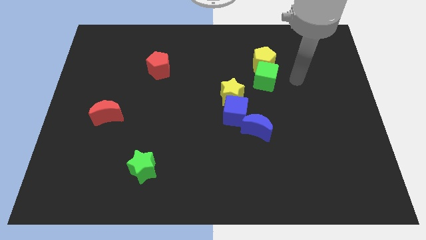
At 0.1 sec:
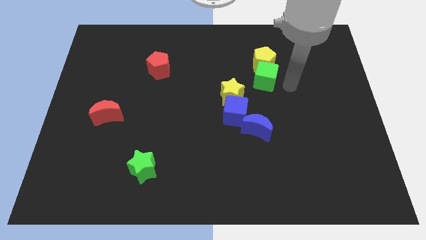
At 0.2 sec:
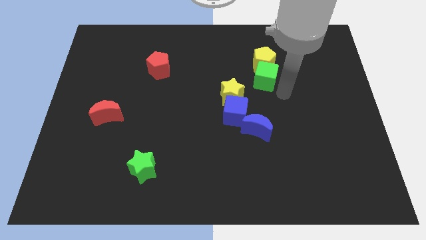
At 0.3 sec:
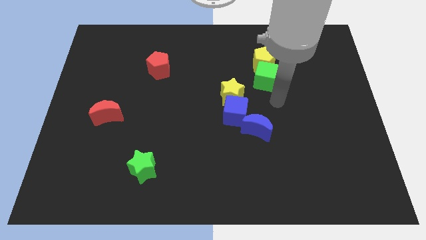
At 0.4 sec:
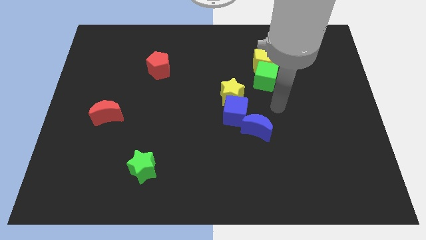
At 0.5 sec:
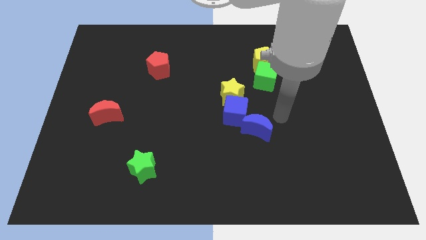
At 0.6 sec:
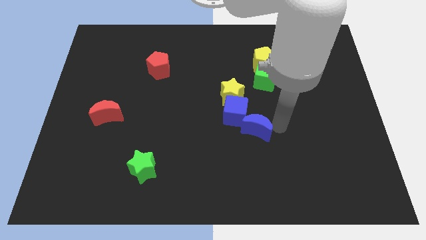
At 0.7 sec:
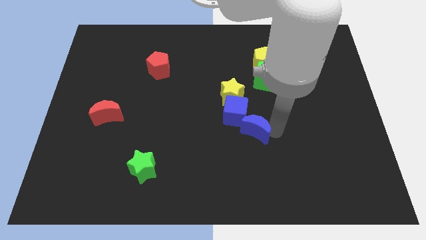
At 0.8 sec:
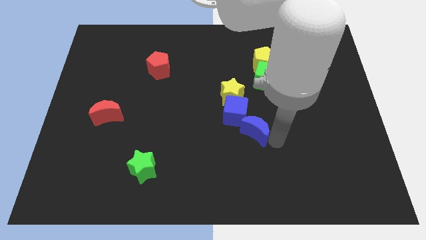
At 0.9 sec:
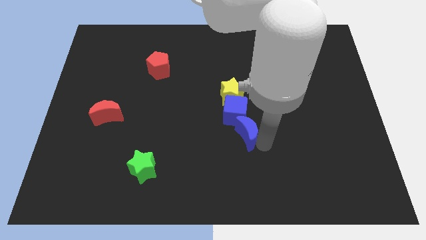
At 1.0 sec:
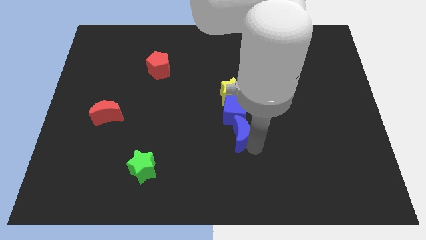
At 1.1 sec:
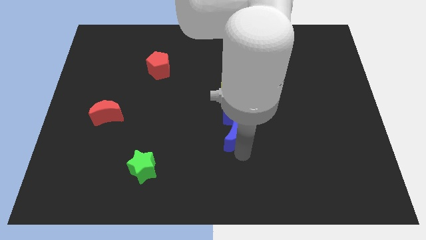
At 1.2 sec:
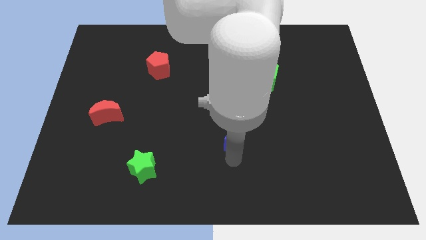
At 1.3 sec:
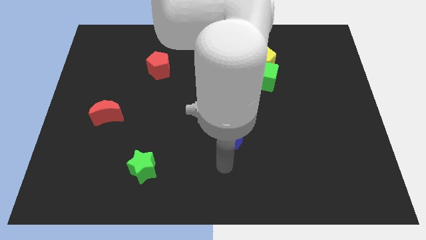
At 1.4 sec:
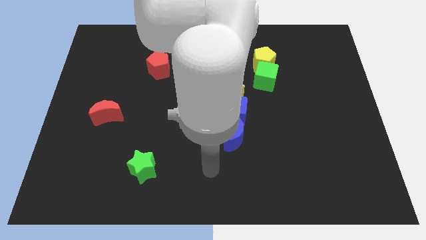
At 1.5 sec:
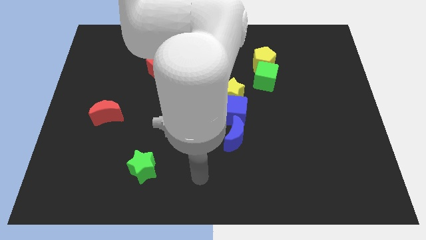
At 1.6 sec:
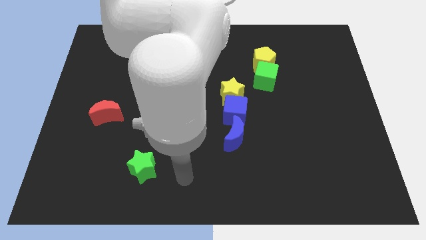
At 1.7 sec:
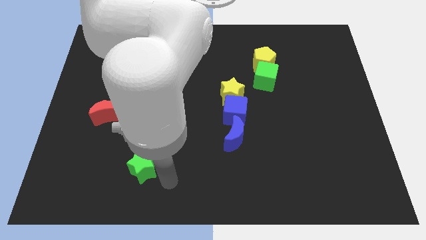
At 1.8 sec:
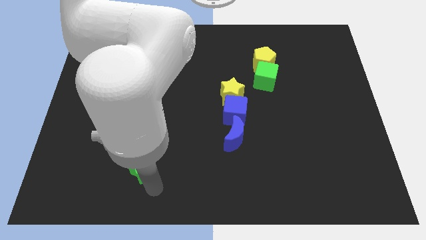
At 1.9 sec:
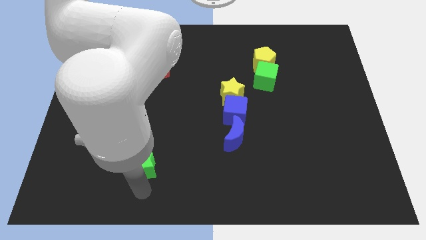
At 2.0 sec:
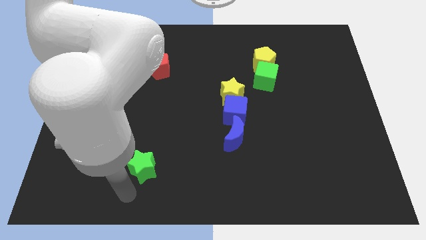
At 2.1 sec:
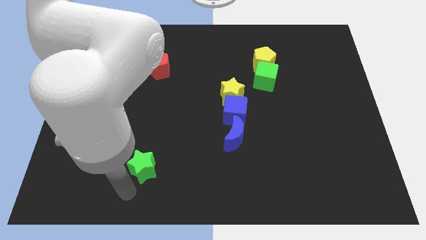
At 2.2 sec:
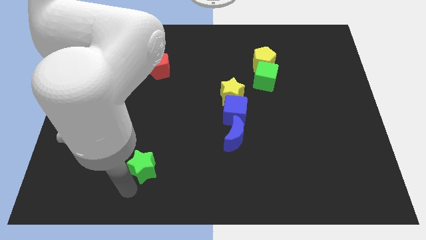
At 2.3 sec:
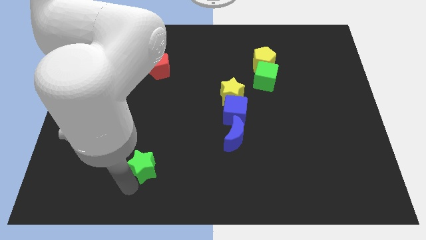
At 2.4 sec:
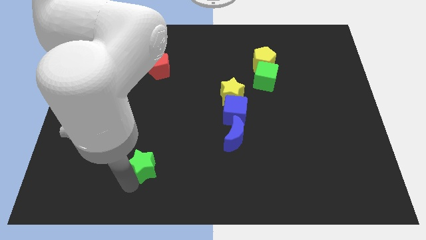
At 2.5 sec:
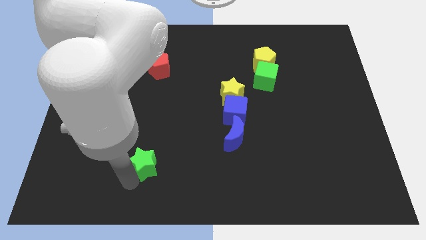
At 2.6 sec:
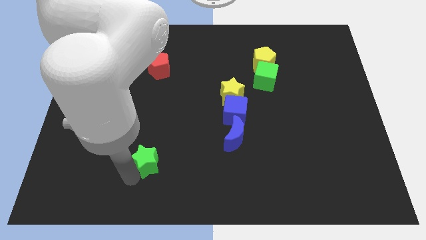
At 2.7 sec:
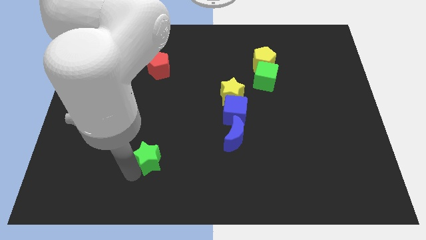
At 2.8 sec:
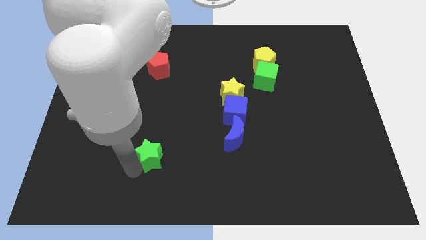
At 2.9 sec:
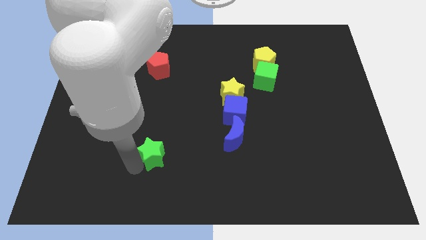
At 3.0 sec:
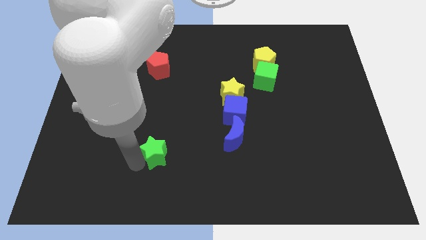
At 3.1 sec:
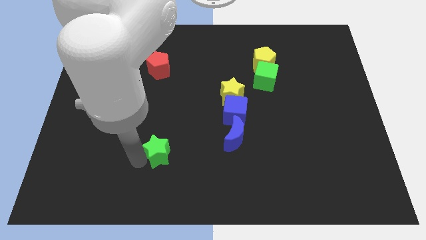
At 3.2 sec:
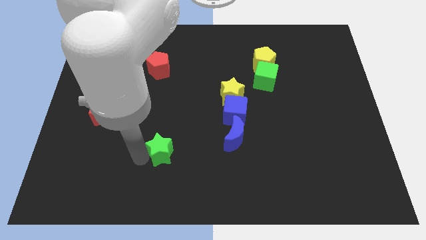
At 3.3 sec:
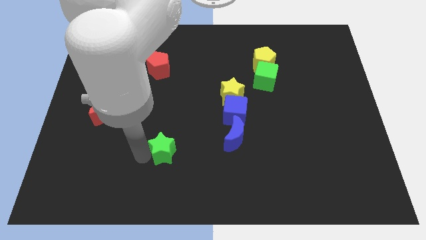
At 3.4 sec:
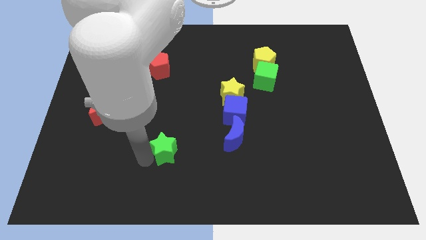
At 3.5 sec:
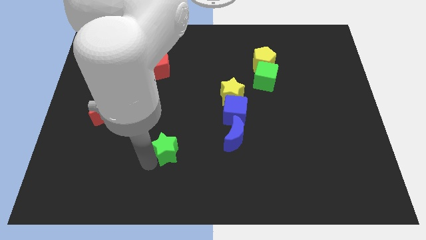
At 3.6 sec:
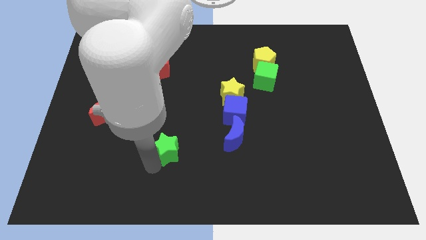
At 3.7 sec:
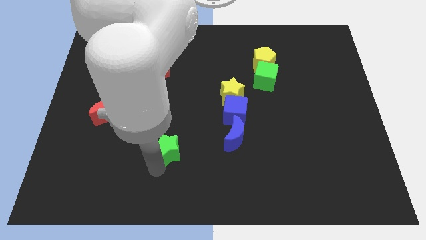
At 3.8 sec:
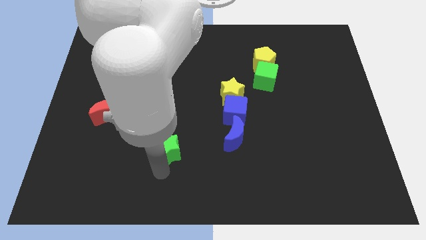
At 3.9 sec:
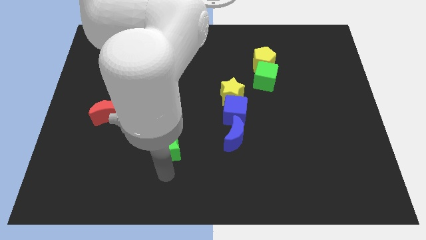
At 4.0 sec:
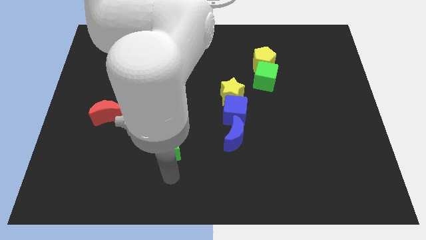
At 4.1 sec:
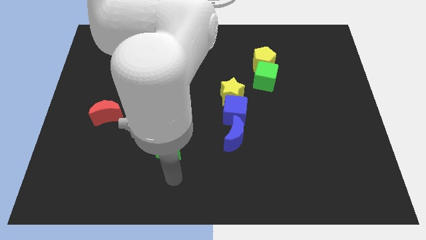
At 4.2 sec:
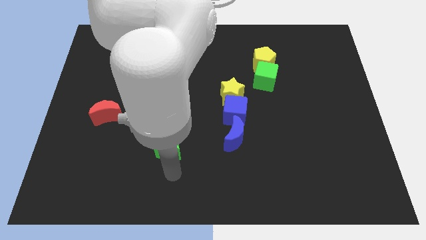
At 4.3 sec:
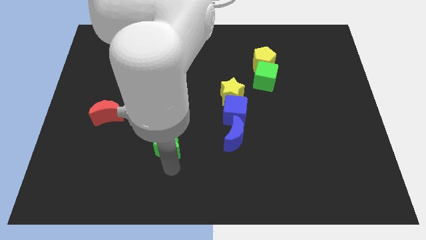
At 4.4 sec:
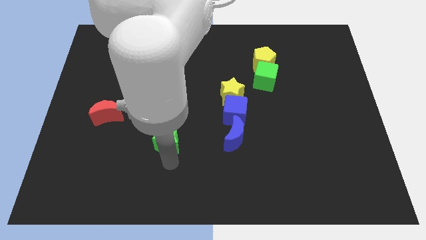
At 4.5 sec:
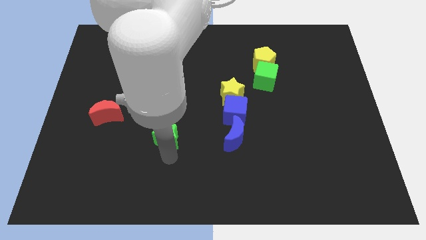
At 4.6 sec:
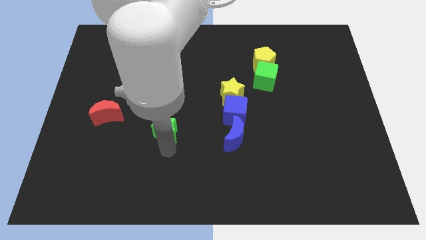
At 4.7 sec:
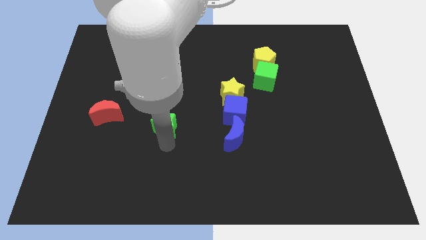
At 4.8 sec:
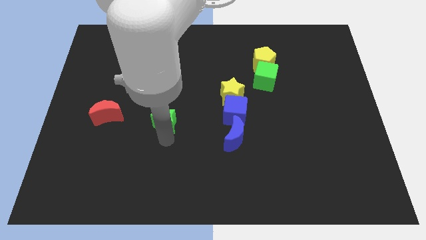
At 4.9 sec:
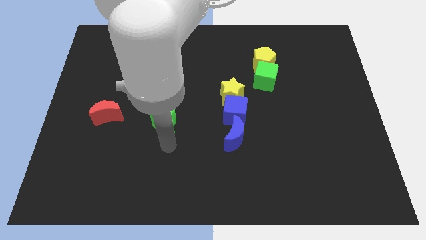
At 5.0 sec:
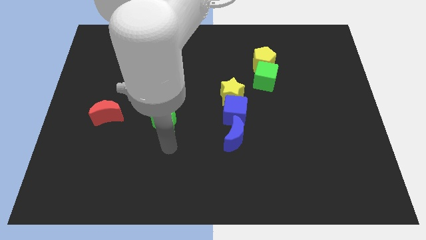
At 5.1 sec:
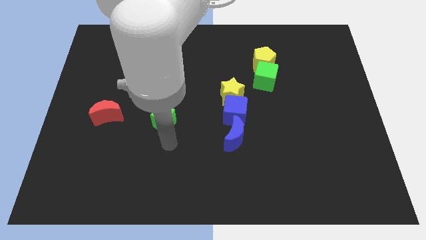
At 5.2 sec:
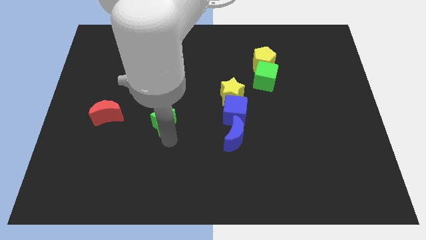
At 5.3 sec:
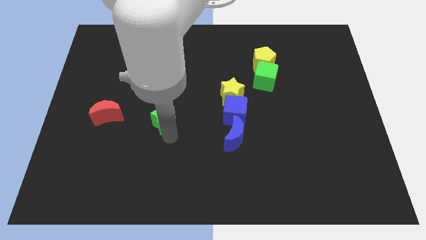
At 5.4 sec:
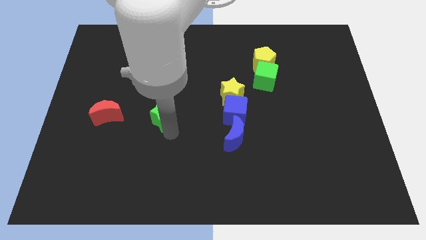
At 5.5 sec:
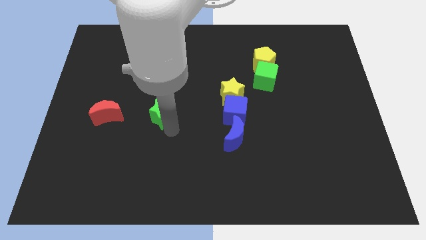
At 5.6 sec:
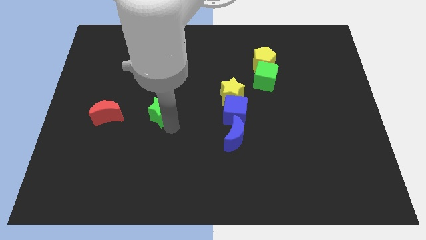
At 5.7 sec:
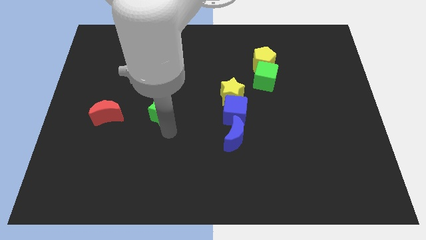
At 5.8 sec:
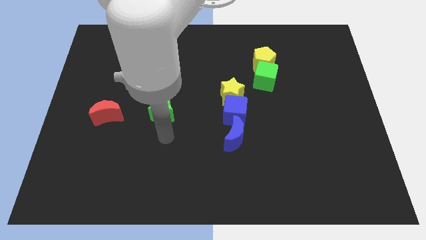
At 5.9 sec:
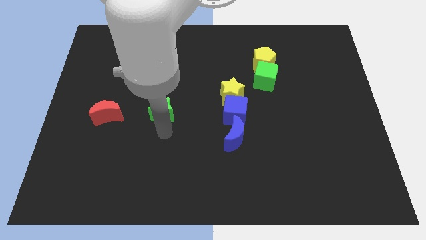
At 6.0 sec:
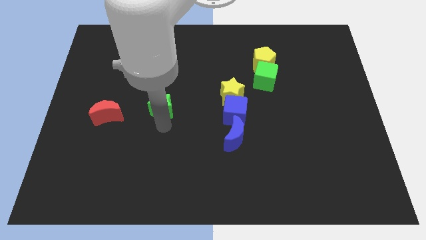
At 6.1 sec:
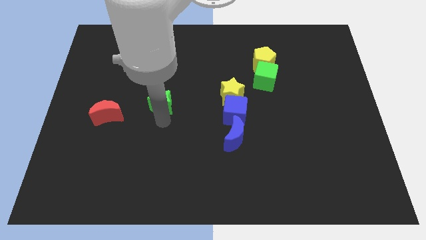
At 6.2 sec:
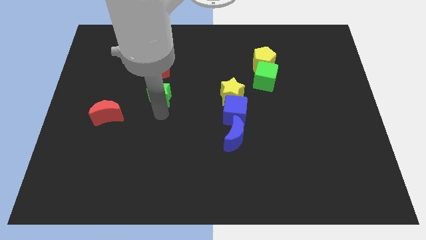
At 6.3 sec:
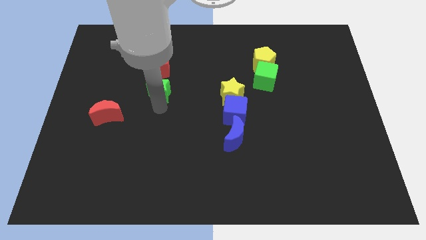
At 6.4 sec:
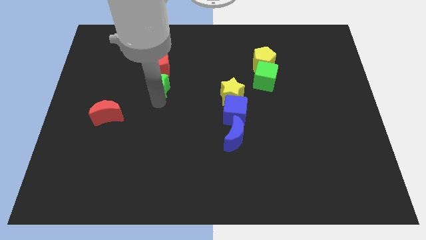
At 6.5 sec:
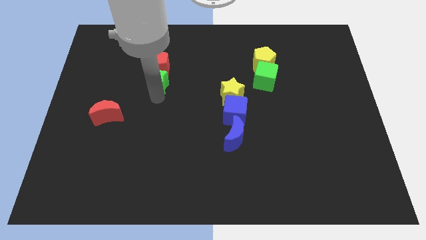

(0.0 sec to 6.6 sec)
push the green star close to the red pentagon
